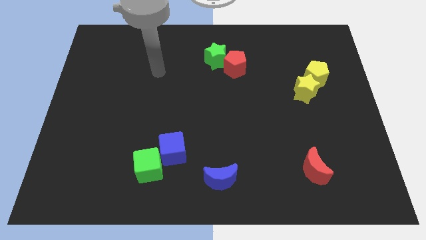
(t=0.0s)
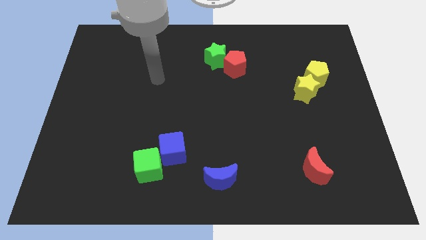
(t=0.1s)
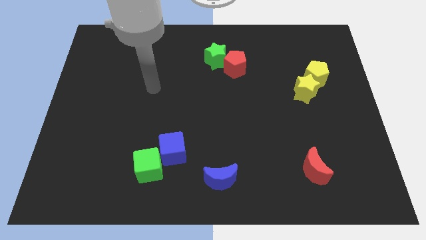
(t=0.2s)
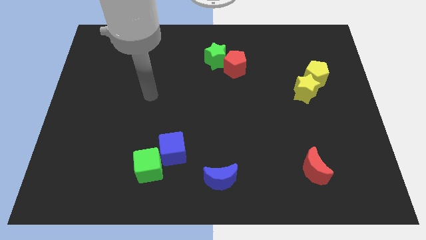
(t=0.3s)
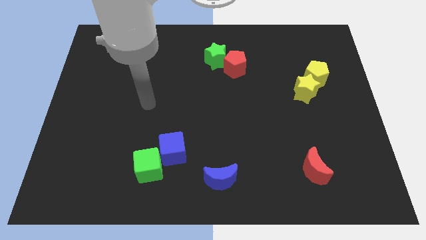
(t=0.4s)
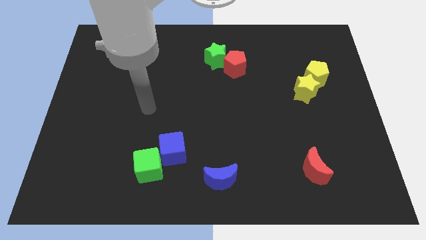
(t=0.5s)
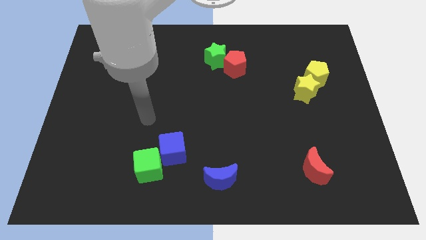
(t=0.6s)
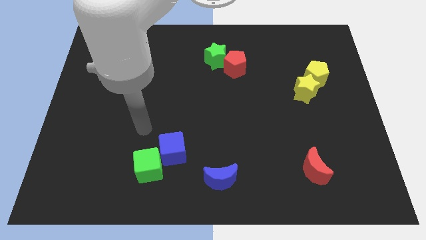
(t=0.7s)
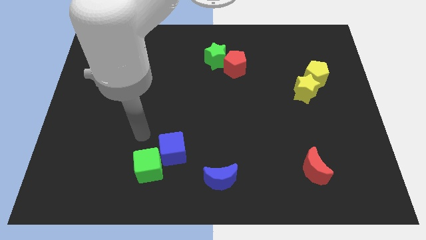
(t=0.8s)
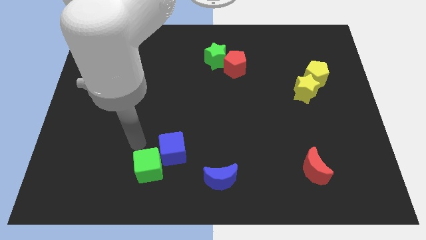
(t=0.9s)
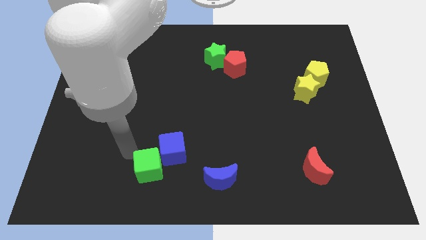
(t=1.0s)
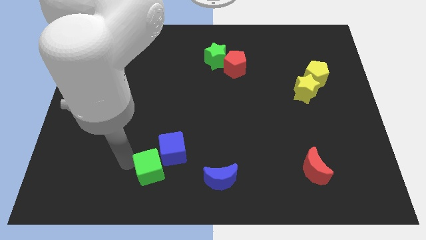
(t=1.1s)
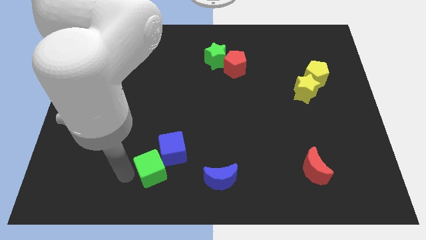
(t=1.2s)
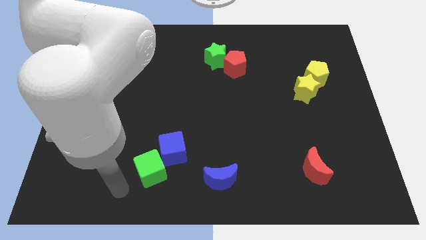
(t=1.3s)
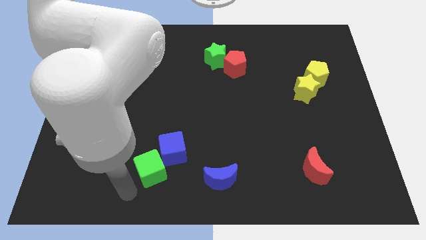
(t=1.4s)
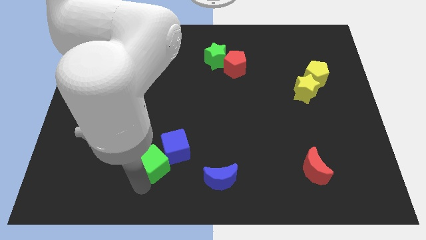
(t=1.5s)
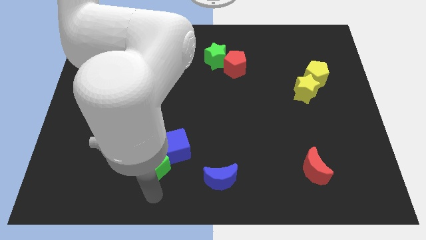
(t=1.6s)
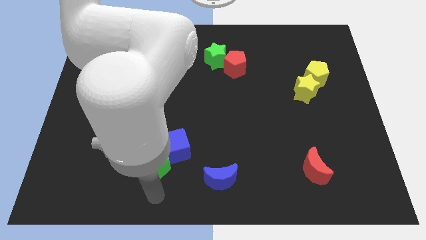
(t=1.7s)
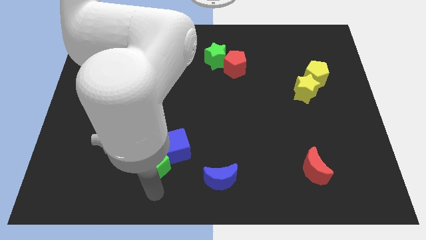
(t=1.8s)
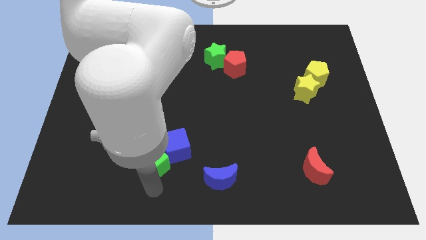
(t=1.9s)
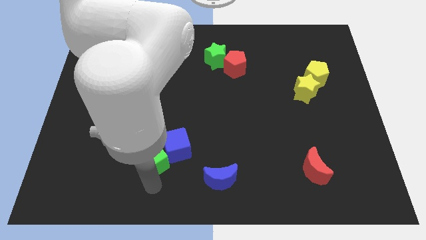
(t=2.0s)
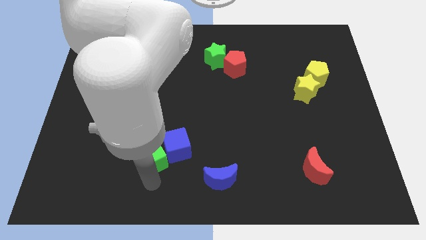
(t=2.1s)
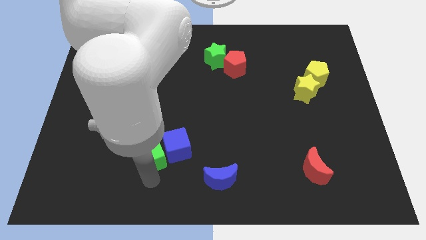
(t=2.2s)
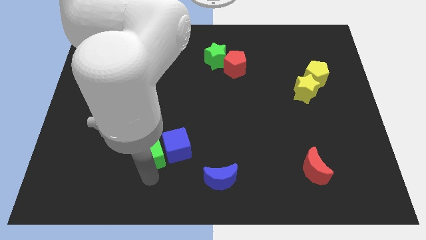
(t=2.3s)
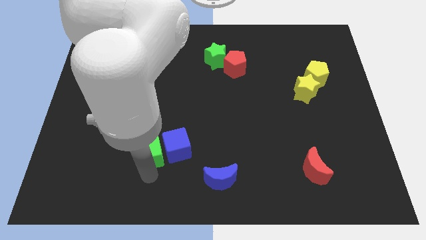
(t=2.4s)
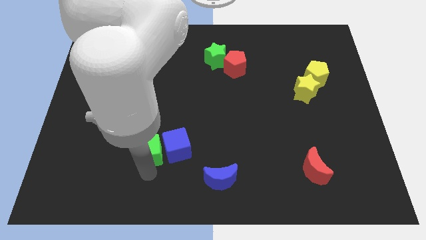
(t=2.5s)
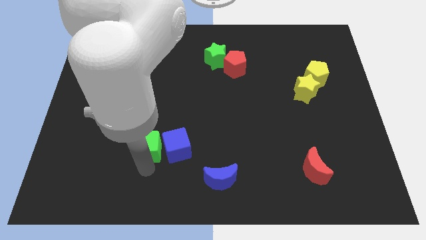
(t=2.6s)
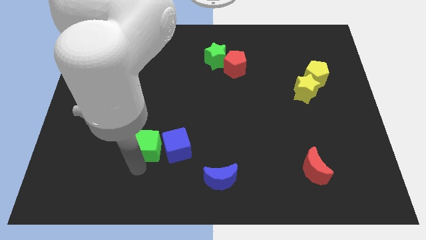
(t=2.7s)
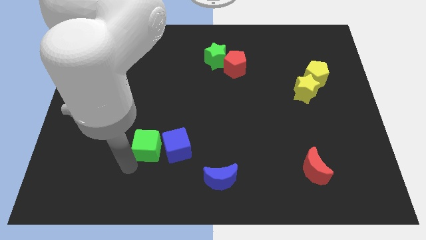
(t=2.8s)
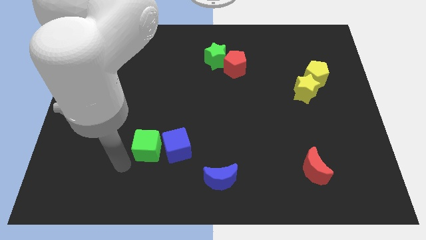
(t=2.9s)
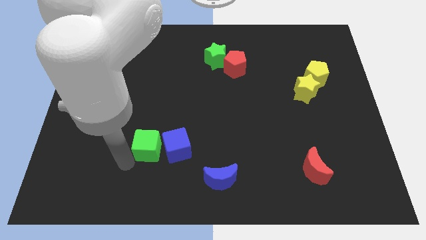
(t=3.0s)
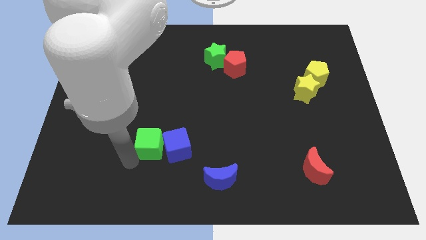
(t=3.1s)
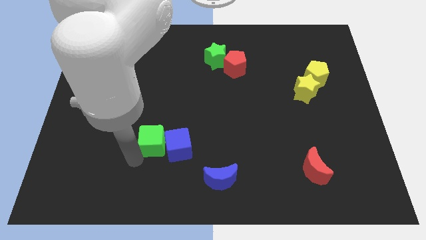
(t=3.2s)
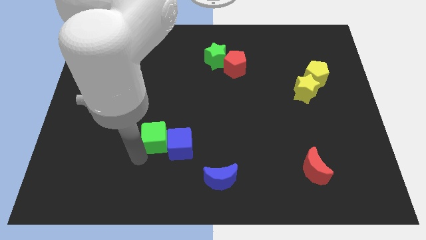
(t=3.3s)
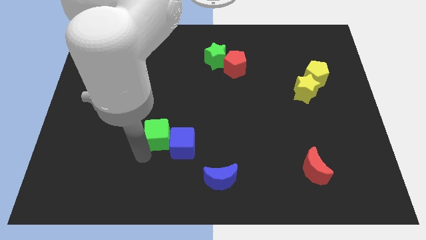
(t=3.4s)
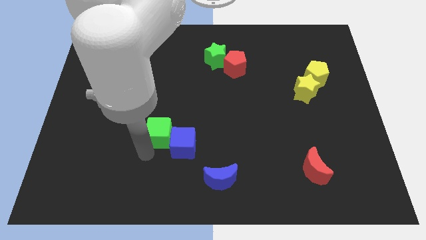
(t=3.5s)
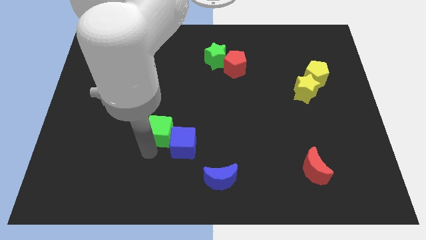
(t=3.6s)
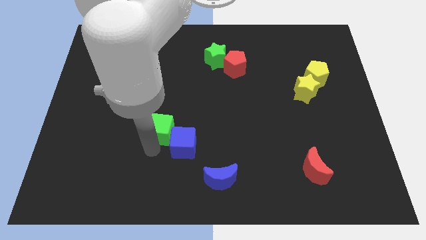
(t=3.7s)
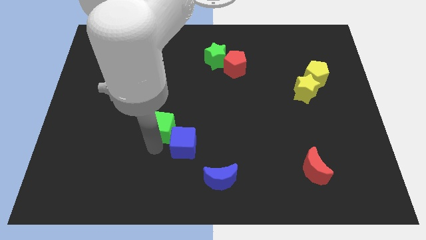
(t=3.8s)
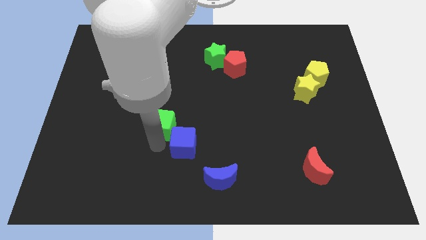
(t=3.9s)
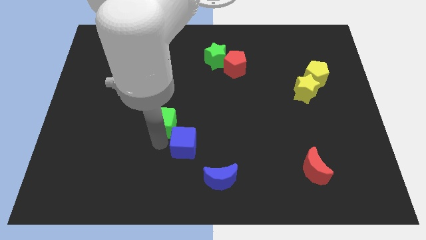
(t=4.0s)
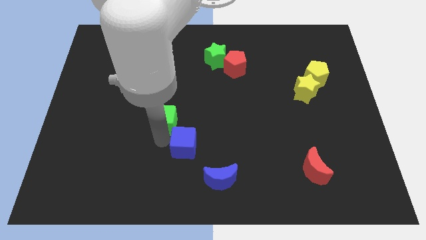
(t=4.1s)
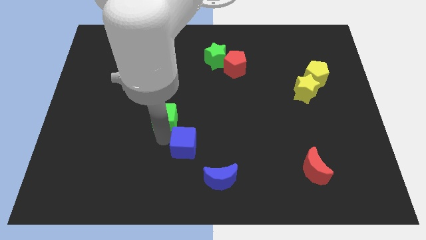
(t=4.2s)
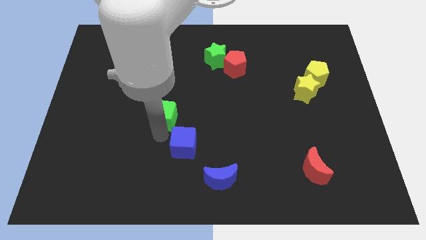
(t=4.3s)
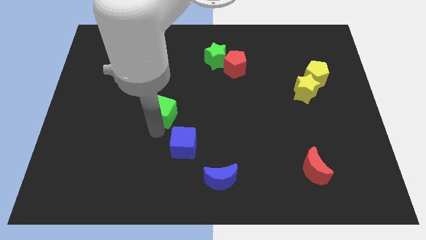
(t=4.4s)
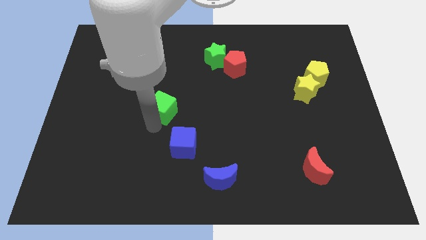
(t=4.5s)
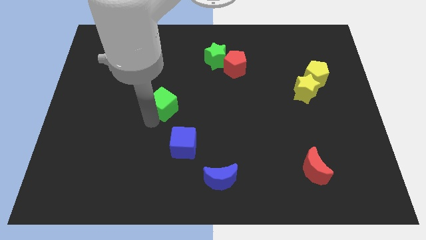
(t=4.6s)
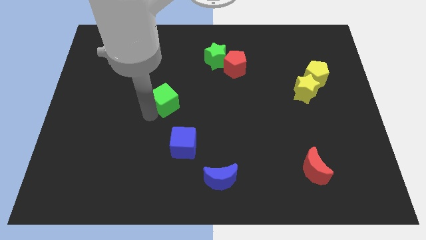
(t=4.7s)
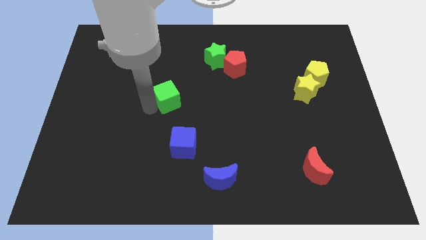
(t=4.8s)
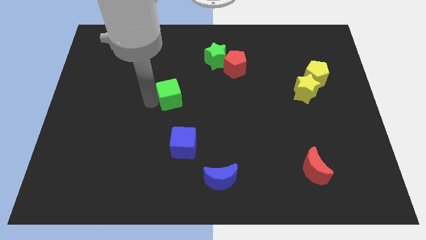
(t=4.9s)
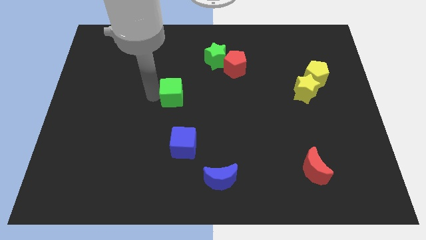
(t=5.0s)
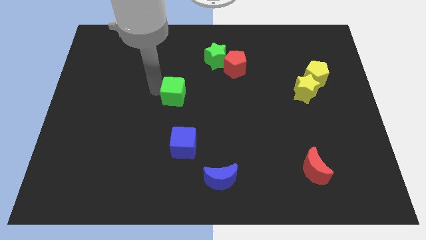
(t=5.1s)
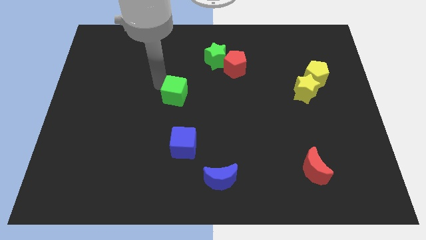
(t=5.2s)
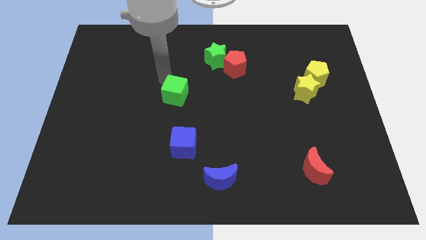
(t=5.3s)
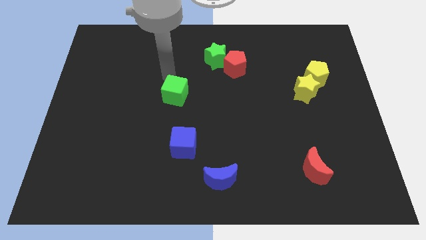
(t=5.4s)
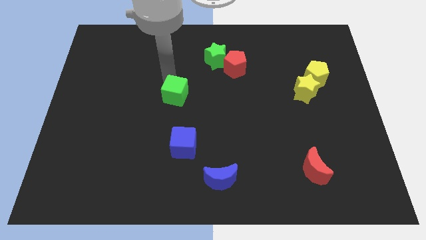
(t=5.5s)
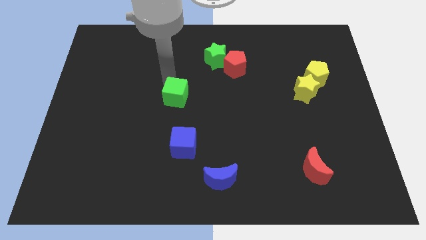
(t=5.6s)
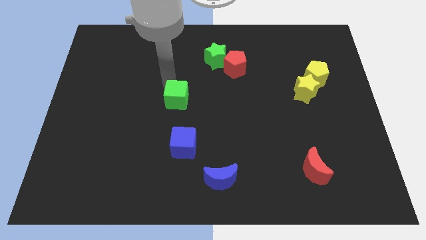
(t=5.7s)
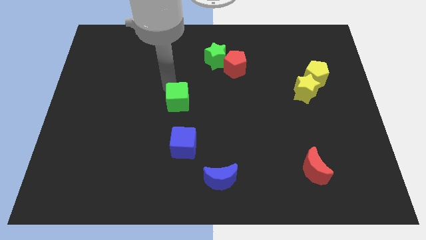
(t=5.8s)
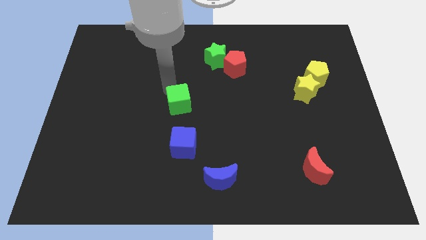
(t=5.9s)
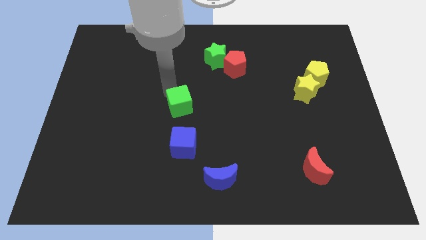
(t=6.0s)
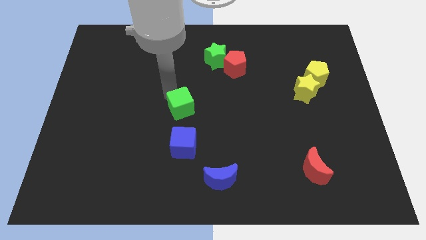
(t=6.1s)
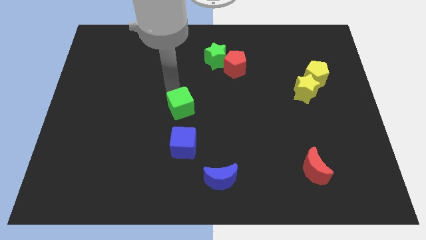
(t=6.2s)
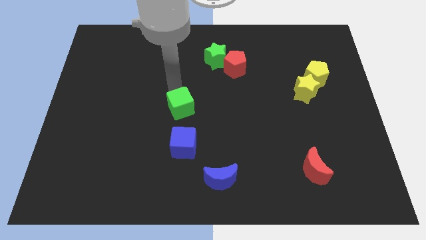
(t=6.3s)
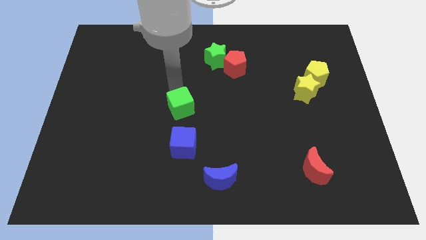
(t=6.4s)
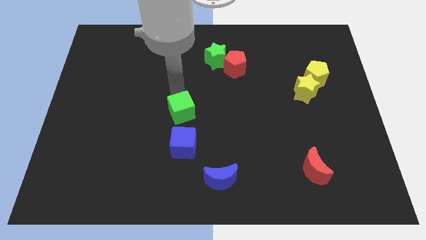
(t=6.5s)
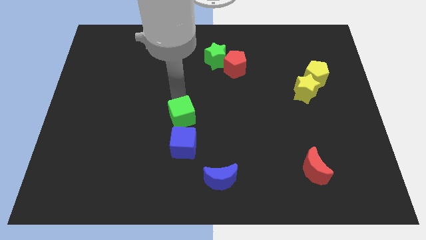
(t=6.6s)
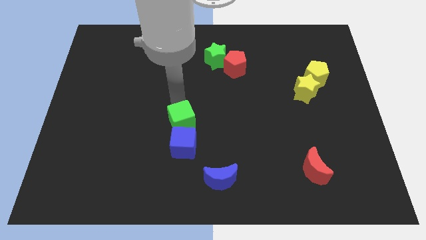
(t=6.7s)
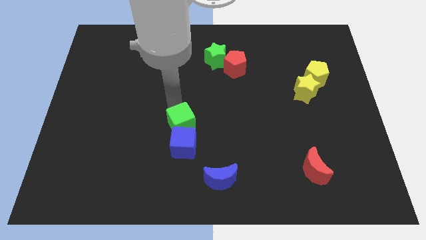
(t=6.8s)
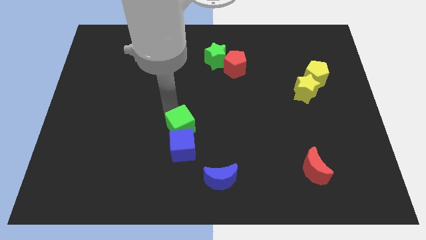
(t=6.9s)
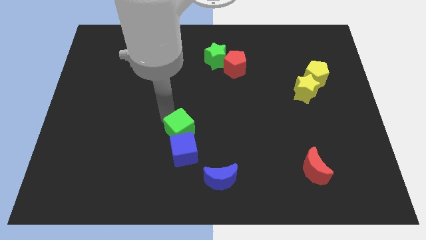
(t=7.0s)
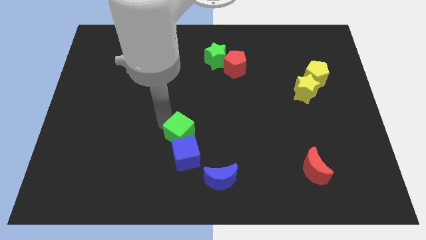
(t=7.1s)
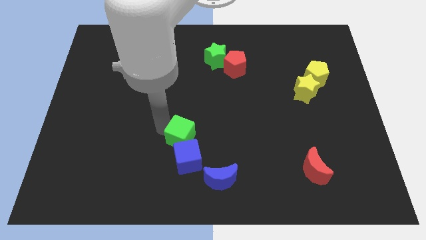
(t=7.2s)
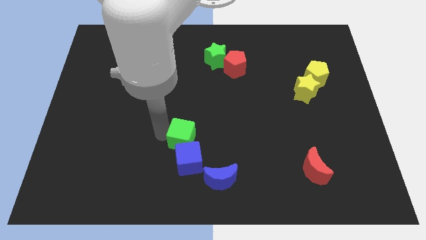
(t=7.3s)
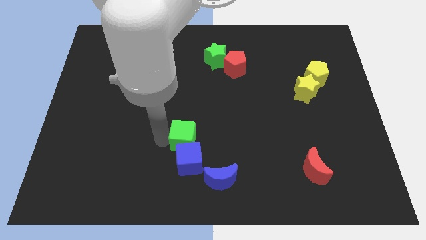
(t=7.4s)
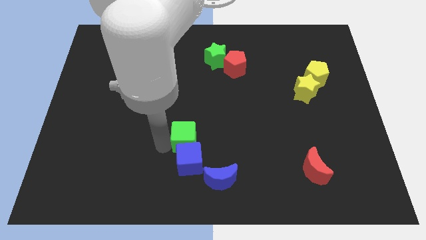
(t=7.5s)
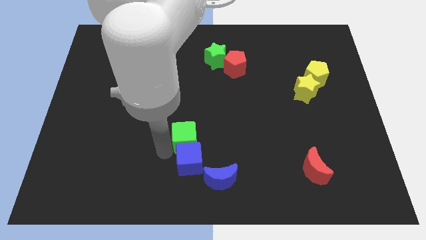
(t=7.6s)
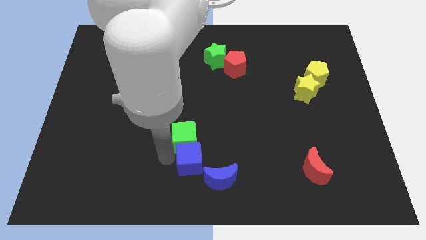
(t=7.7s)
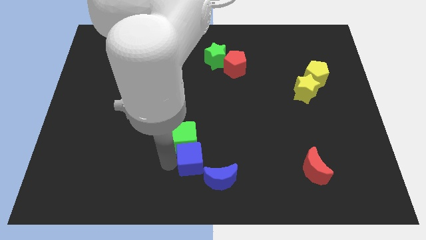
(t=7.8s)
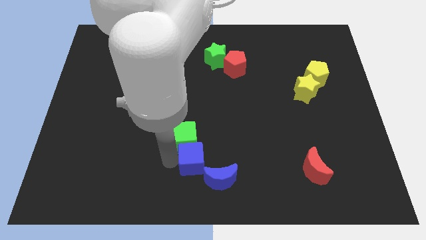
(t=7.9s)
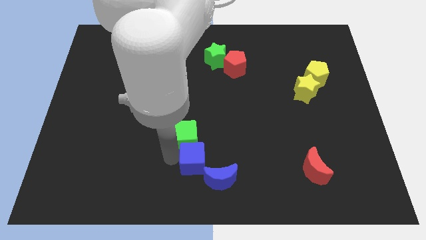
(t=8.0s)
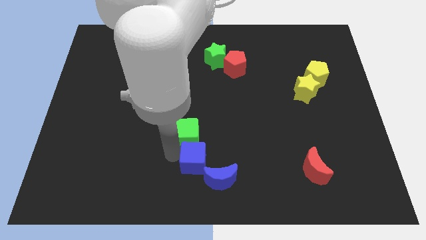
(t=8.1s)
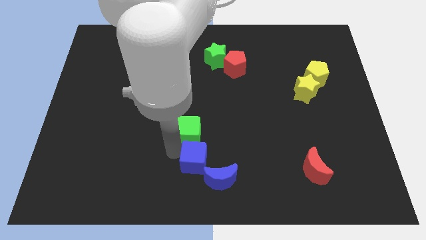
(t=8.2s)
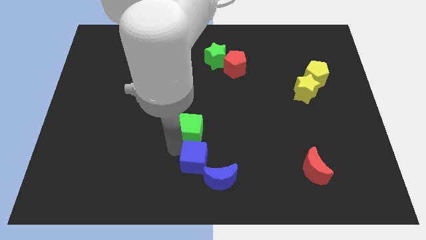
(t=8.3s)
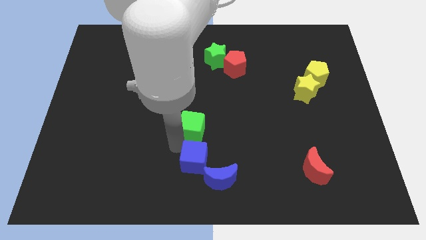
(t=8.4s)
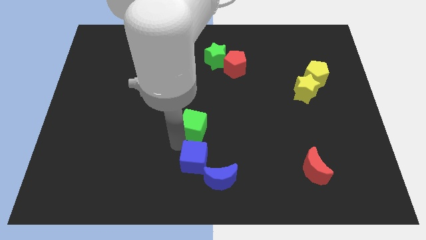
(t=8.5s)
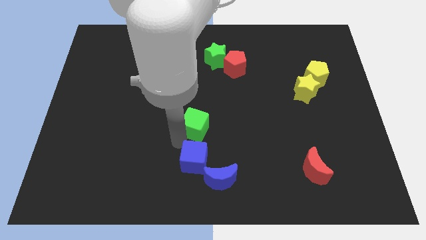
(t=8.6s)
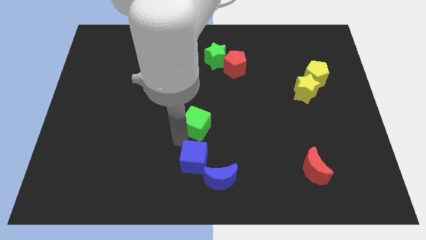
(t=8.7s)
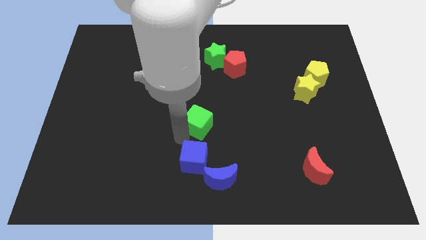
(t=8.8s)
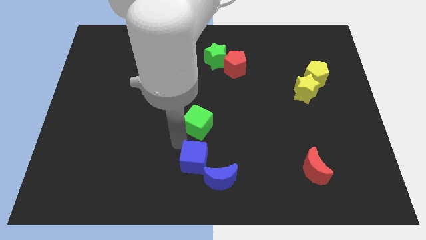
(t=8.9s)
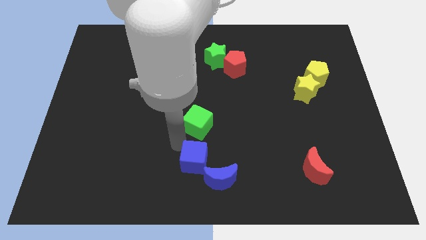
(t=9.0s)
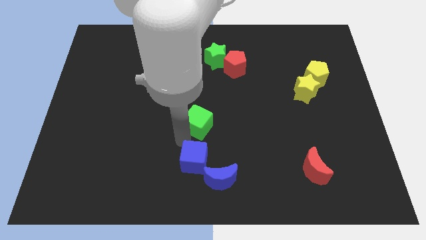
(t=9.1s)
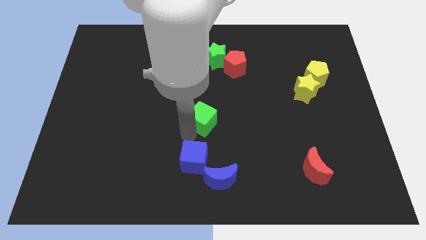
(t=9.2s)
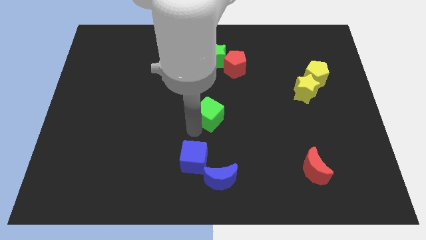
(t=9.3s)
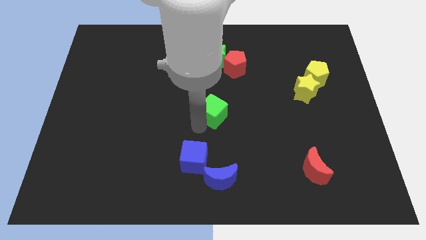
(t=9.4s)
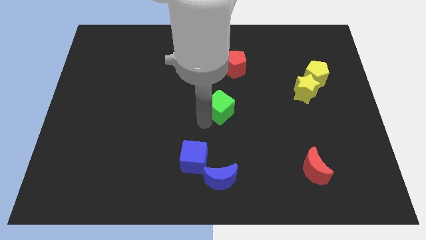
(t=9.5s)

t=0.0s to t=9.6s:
slide the green cube diagonally upwards and to the right
